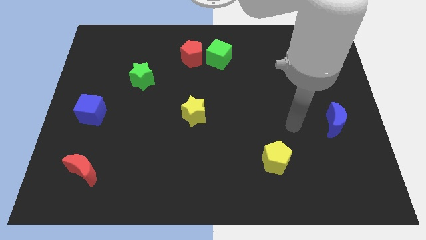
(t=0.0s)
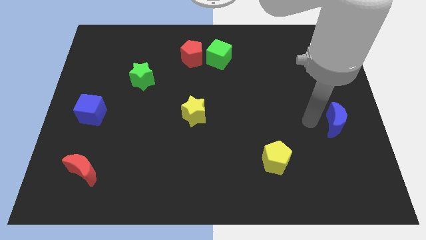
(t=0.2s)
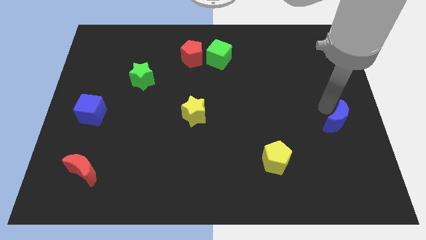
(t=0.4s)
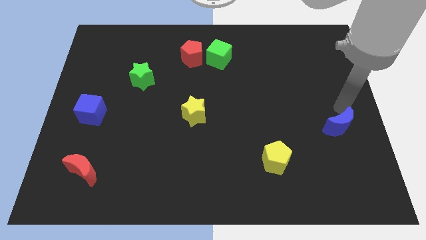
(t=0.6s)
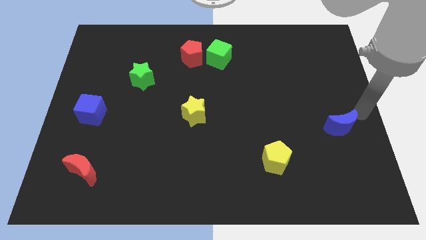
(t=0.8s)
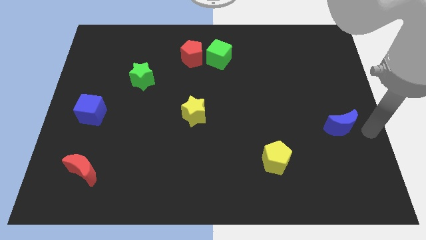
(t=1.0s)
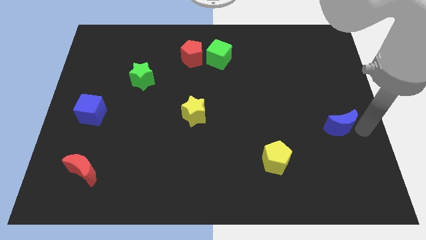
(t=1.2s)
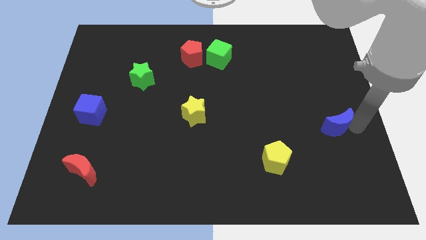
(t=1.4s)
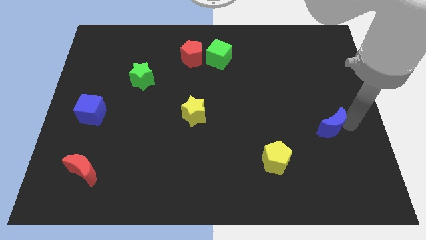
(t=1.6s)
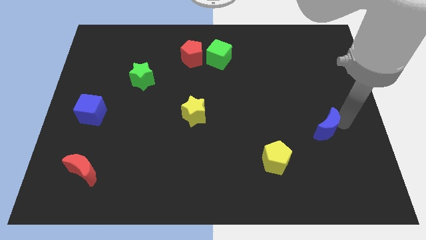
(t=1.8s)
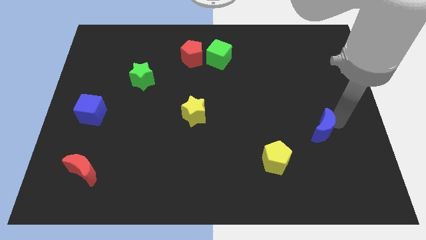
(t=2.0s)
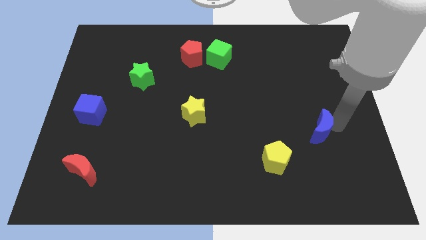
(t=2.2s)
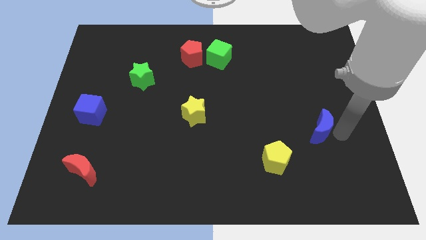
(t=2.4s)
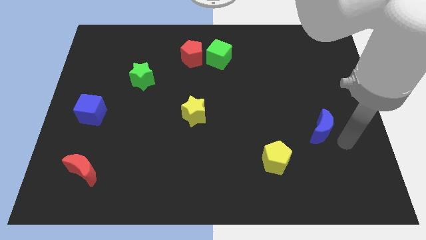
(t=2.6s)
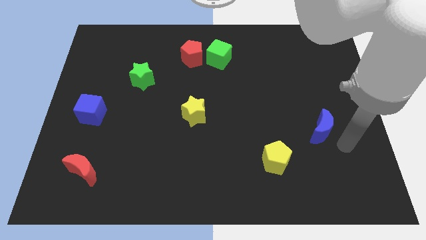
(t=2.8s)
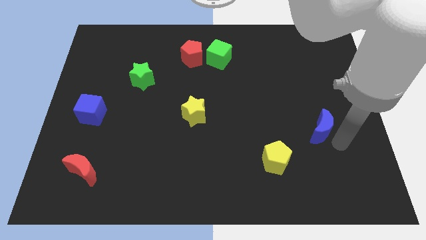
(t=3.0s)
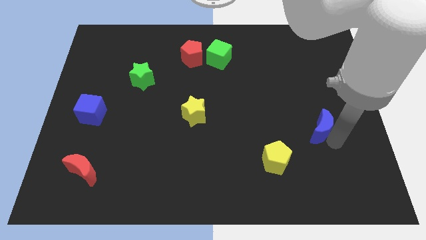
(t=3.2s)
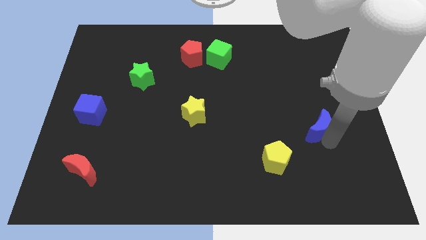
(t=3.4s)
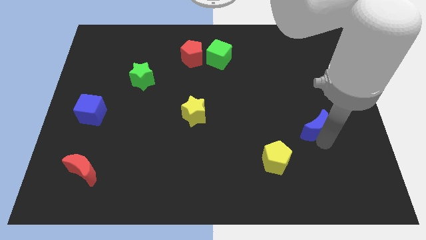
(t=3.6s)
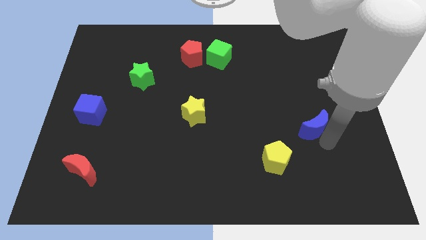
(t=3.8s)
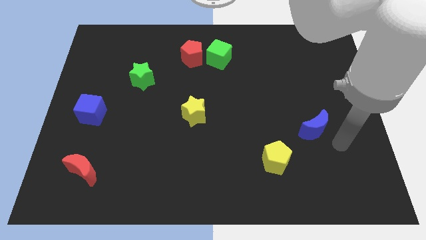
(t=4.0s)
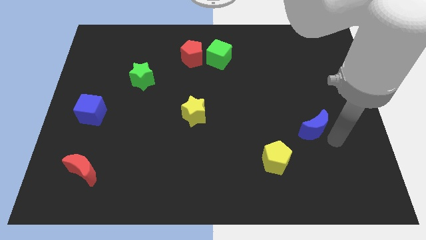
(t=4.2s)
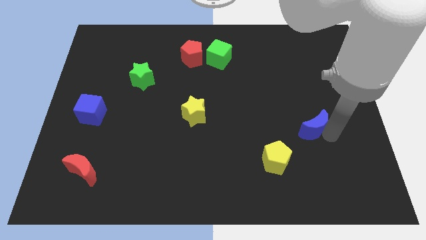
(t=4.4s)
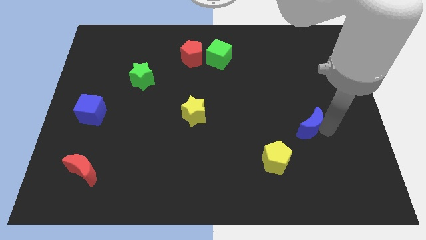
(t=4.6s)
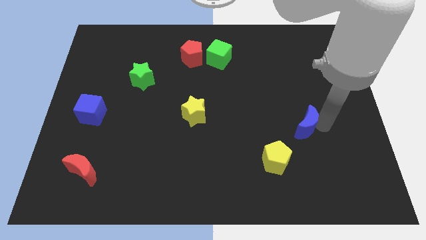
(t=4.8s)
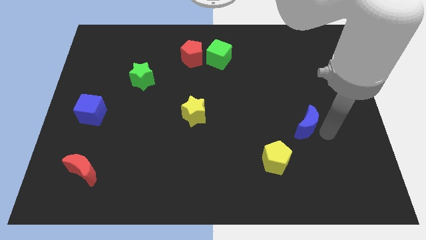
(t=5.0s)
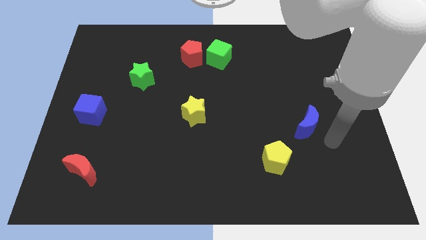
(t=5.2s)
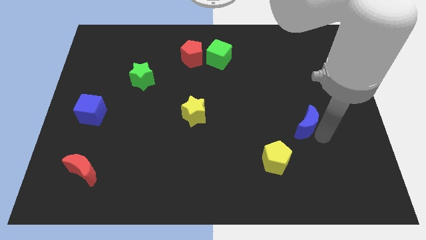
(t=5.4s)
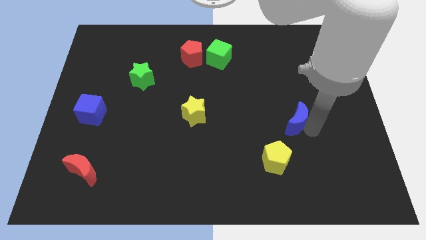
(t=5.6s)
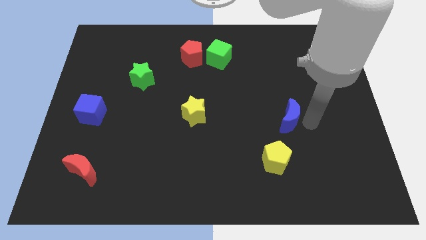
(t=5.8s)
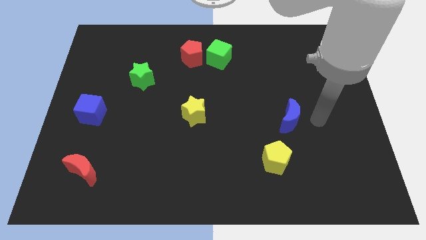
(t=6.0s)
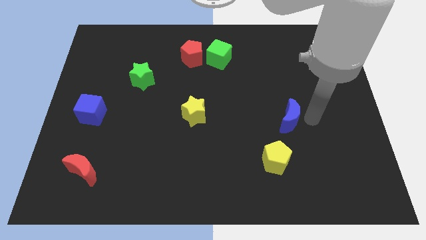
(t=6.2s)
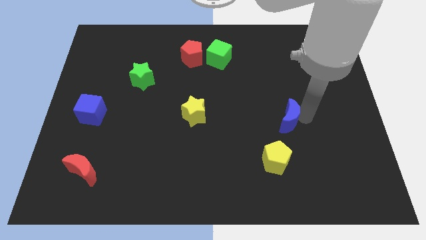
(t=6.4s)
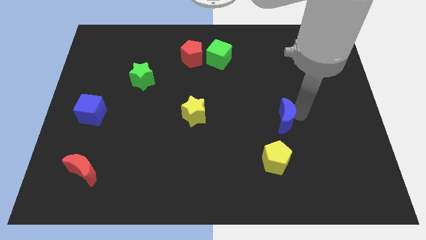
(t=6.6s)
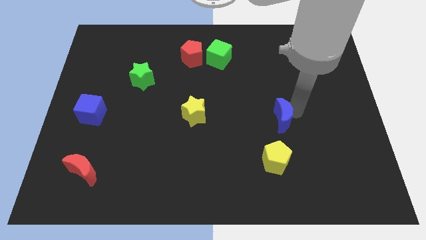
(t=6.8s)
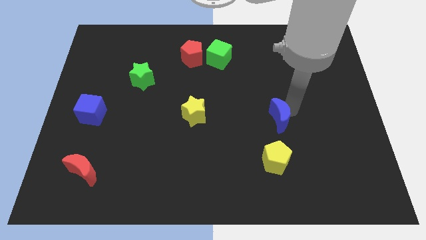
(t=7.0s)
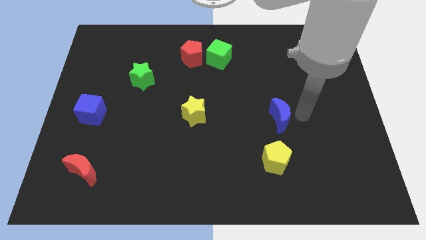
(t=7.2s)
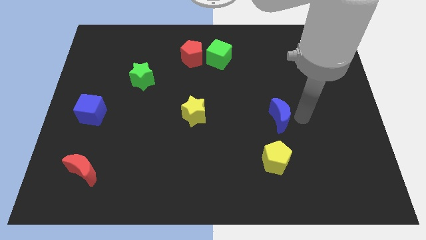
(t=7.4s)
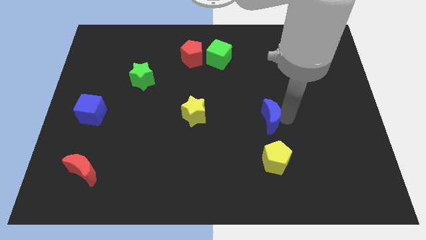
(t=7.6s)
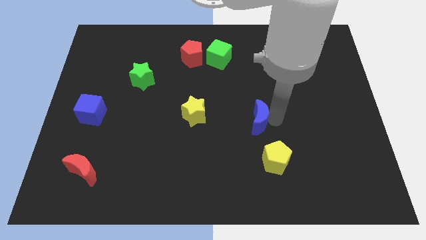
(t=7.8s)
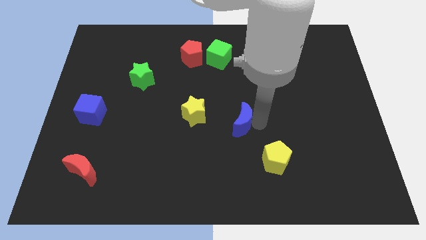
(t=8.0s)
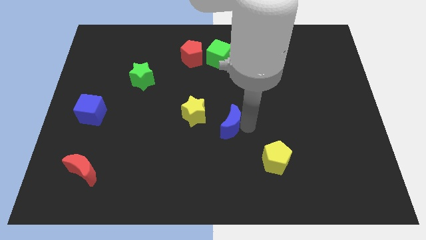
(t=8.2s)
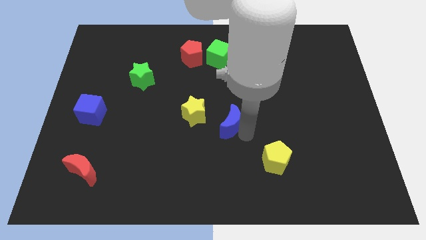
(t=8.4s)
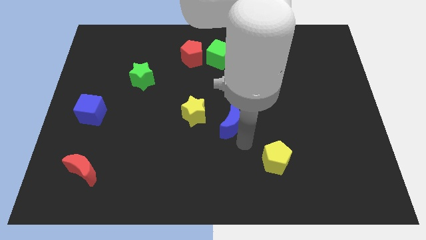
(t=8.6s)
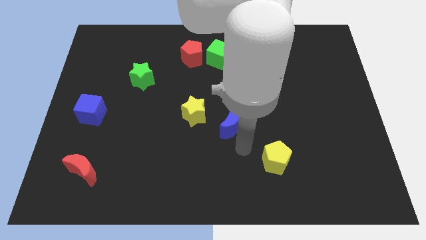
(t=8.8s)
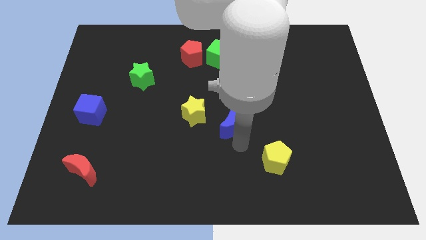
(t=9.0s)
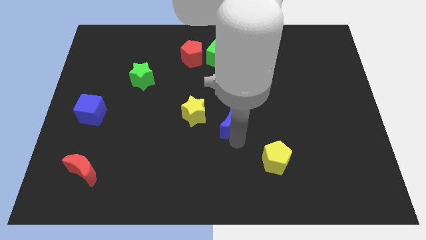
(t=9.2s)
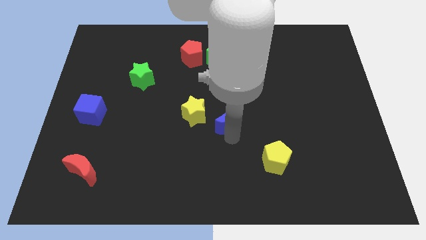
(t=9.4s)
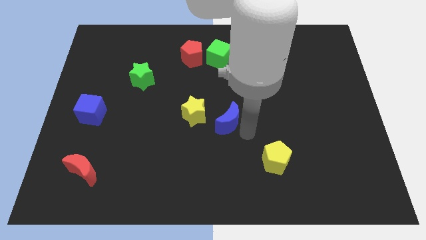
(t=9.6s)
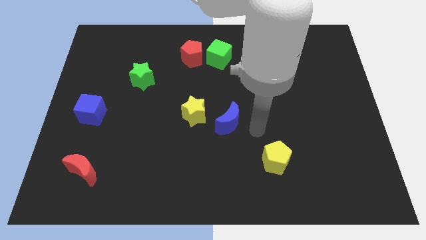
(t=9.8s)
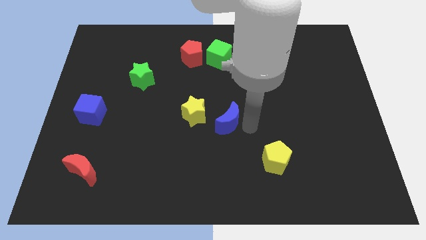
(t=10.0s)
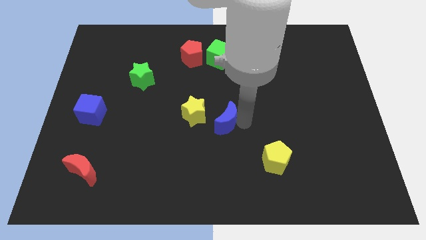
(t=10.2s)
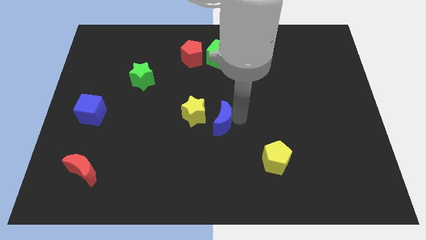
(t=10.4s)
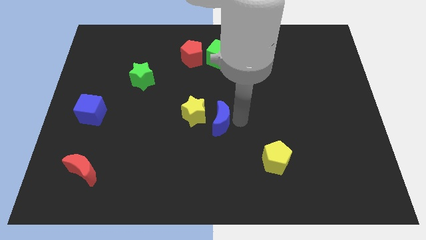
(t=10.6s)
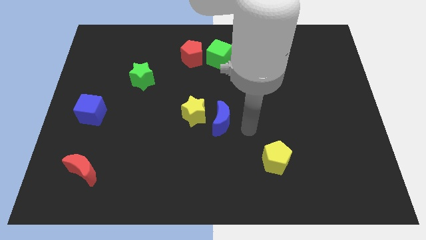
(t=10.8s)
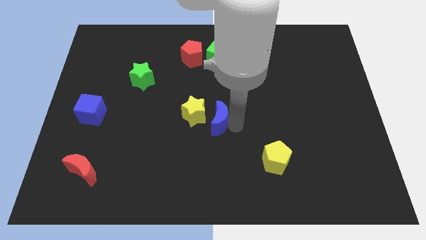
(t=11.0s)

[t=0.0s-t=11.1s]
put the blue moon close to the yellow star

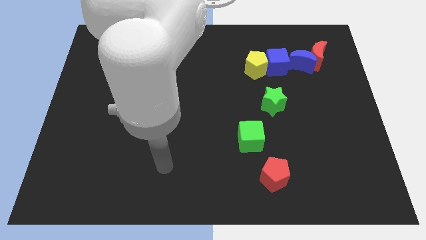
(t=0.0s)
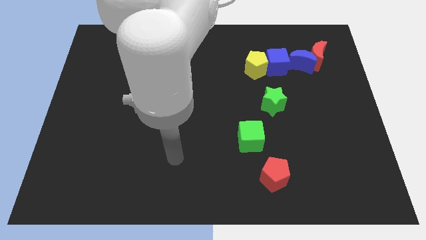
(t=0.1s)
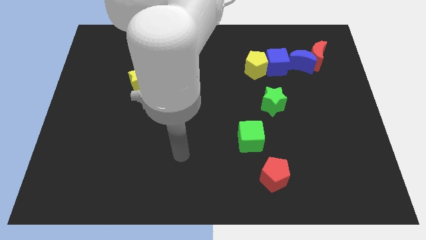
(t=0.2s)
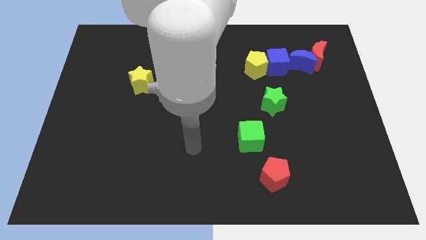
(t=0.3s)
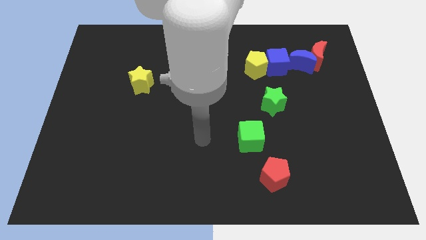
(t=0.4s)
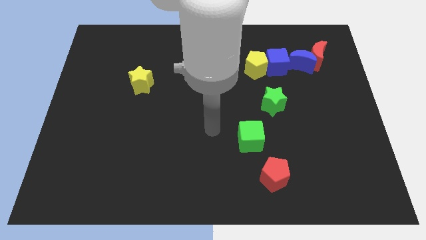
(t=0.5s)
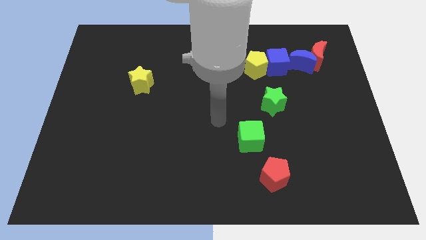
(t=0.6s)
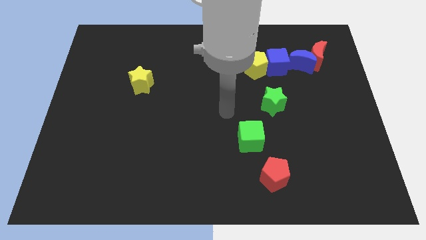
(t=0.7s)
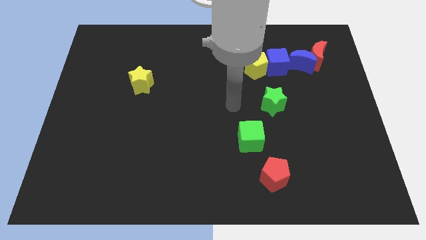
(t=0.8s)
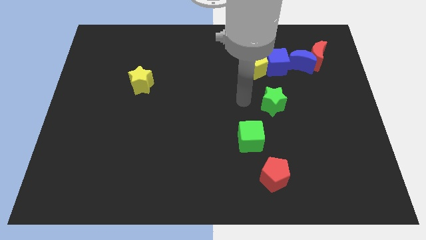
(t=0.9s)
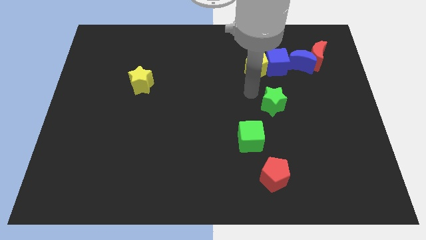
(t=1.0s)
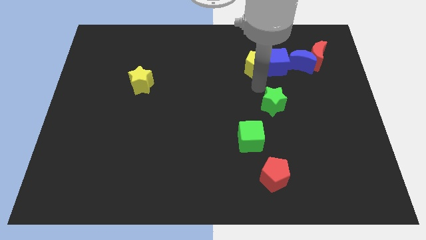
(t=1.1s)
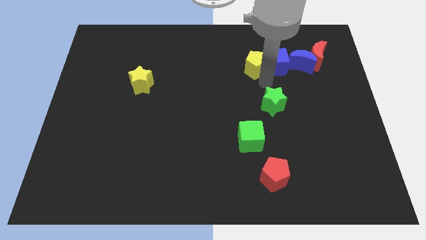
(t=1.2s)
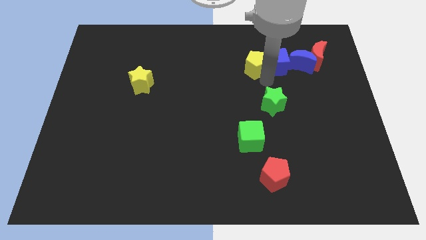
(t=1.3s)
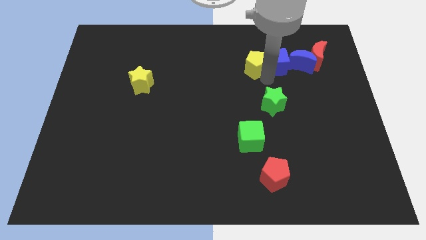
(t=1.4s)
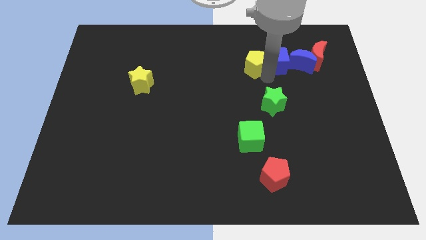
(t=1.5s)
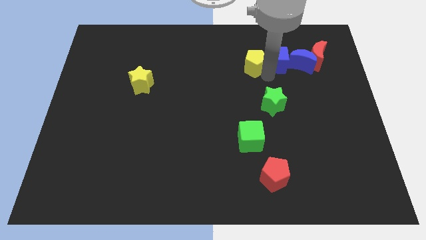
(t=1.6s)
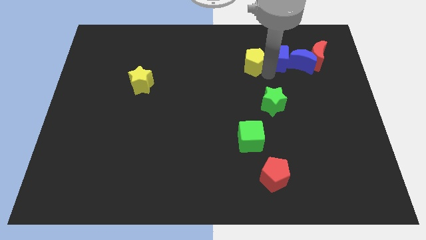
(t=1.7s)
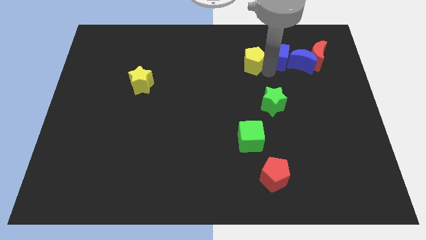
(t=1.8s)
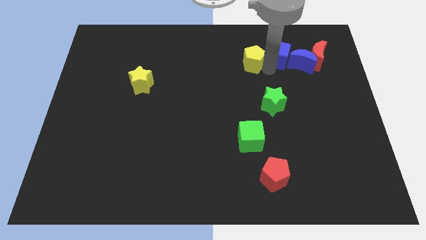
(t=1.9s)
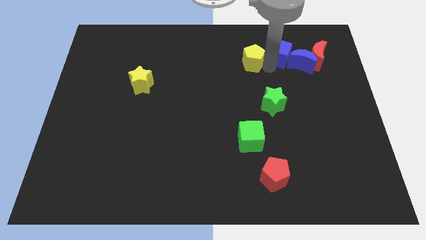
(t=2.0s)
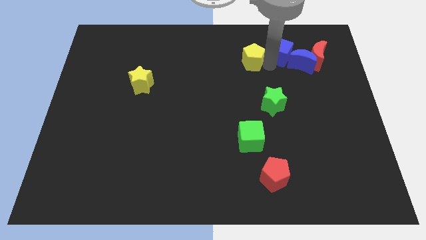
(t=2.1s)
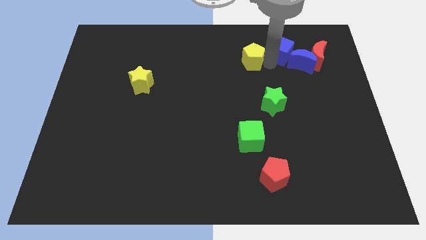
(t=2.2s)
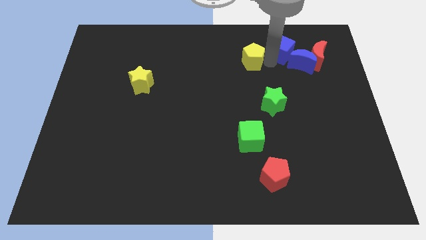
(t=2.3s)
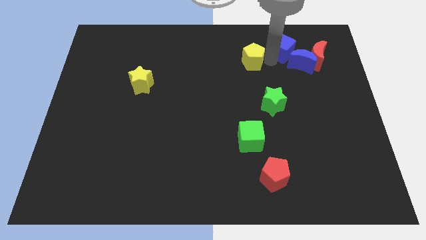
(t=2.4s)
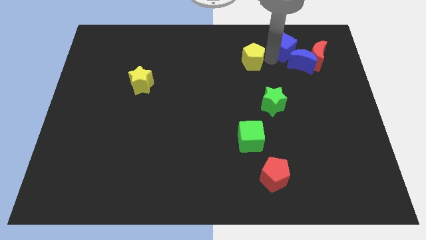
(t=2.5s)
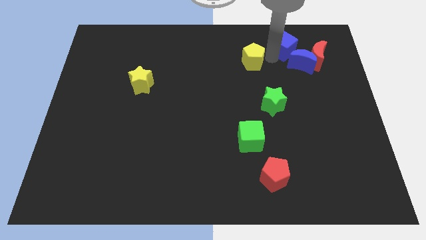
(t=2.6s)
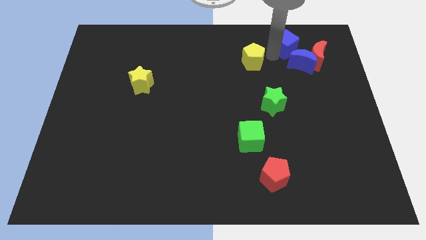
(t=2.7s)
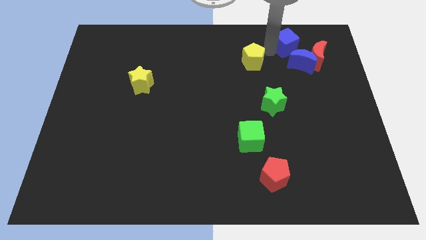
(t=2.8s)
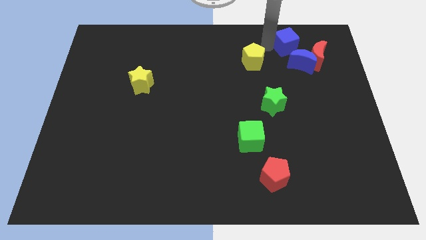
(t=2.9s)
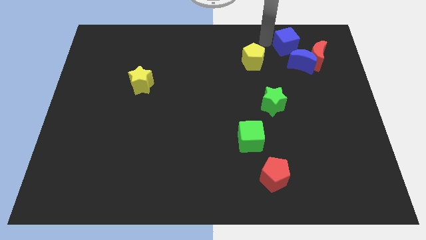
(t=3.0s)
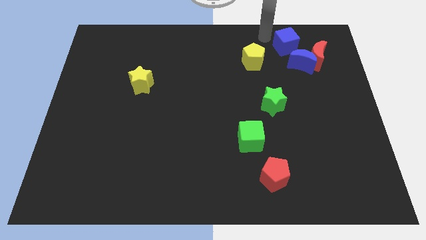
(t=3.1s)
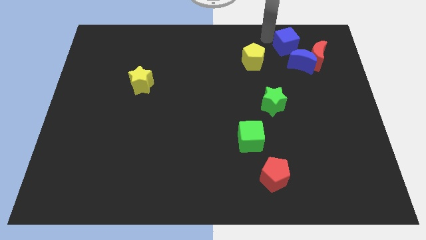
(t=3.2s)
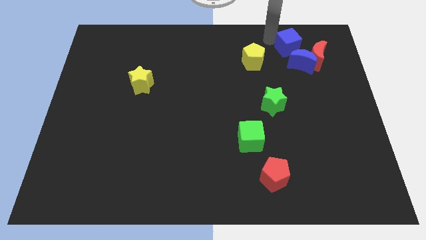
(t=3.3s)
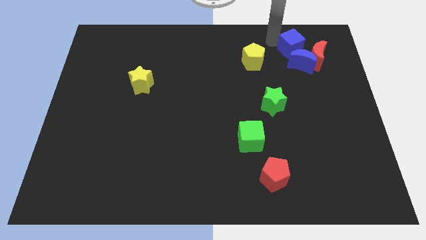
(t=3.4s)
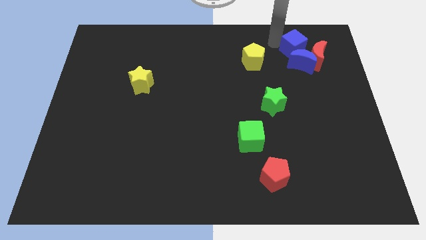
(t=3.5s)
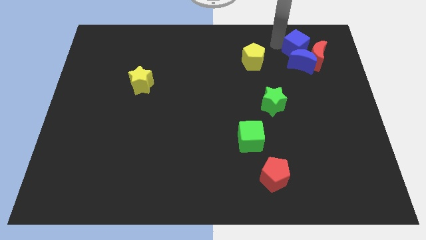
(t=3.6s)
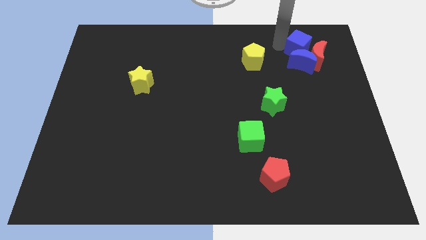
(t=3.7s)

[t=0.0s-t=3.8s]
move the blue cube towards the red moon
